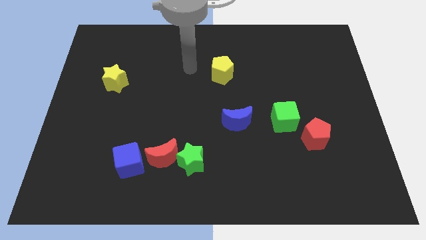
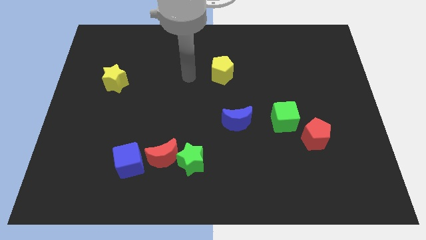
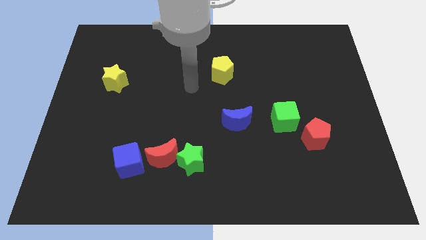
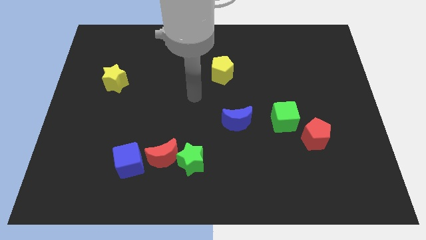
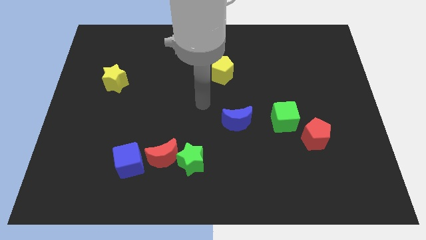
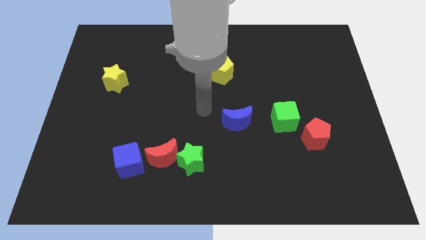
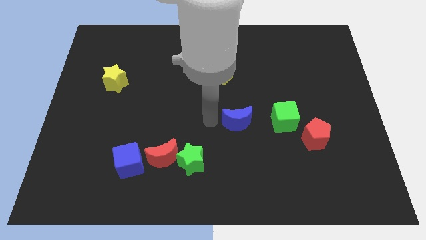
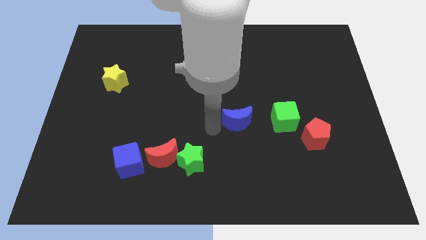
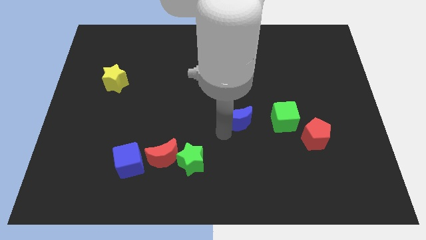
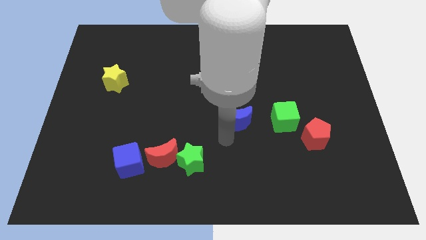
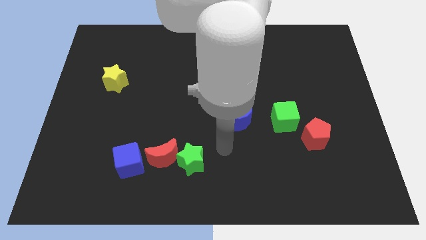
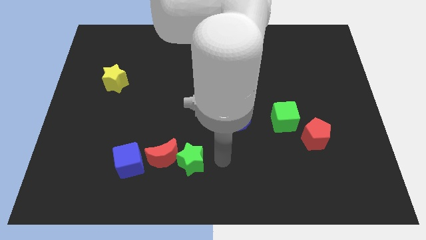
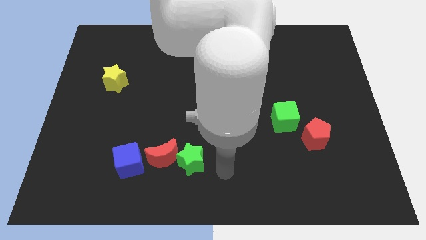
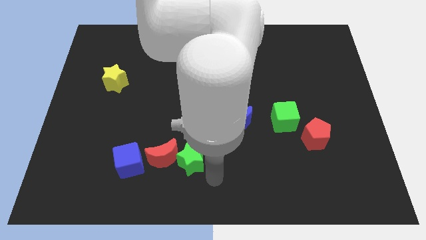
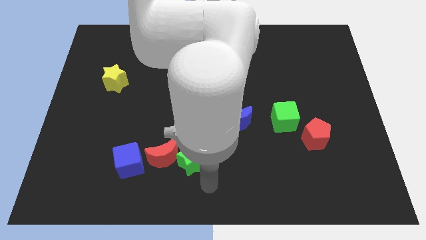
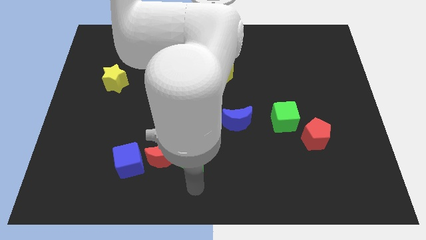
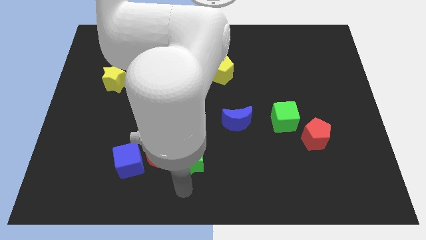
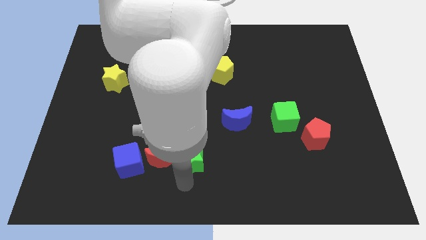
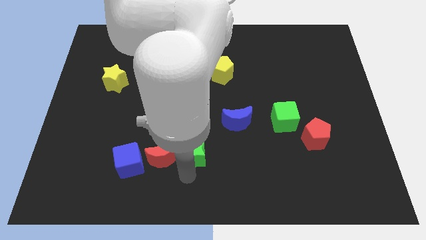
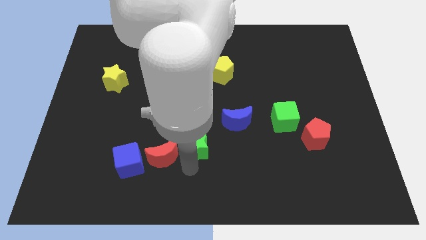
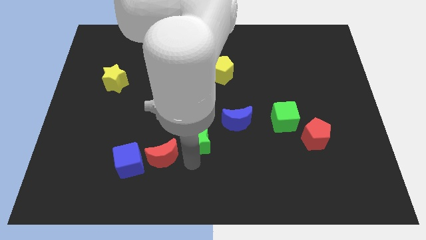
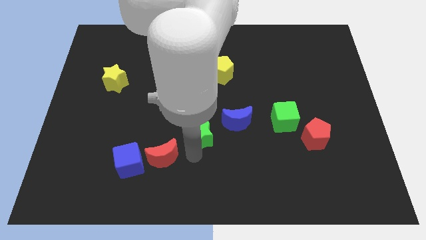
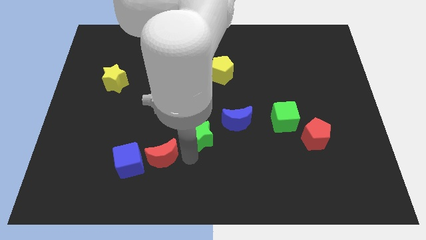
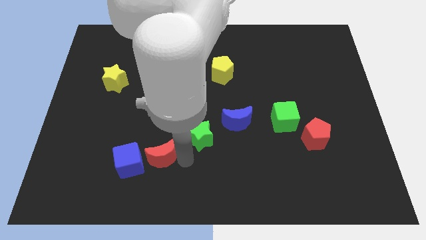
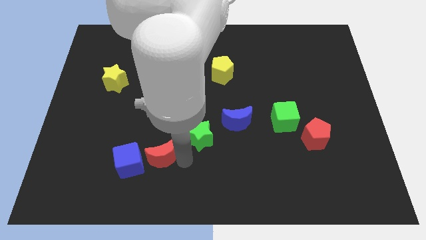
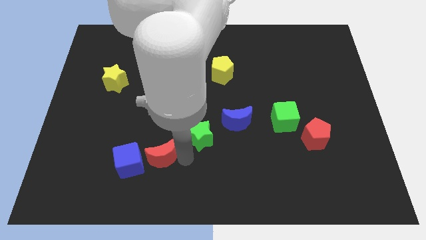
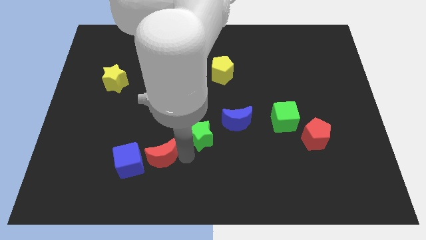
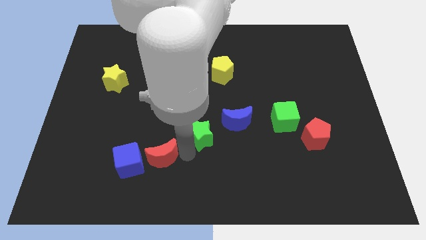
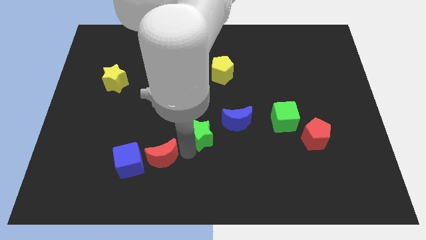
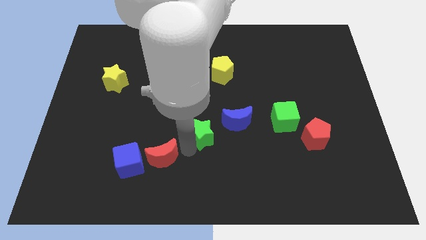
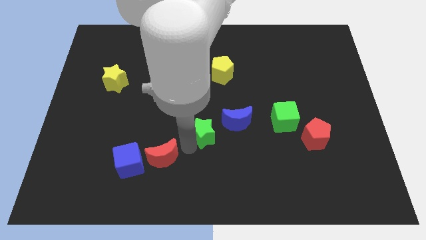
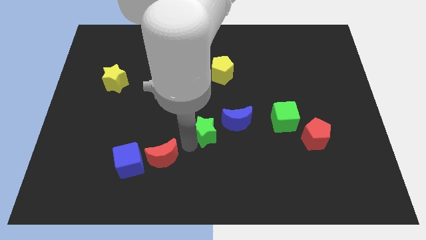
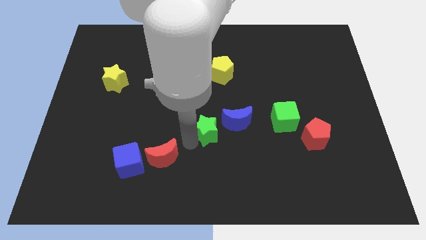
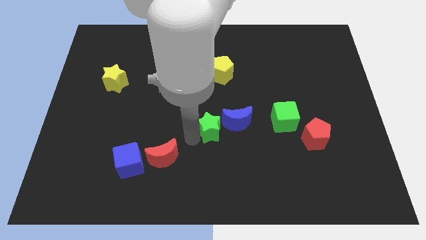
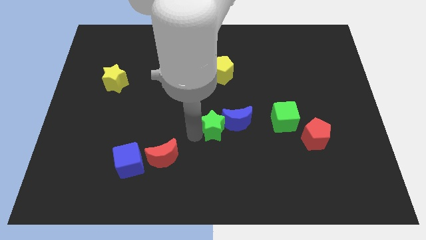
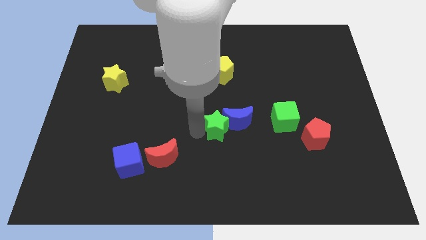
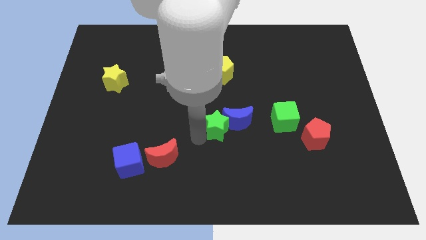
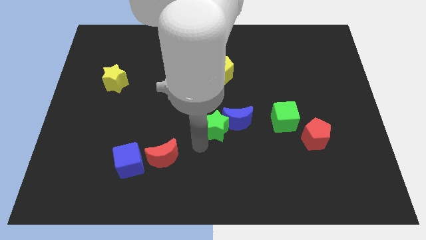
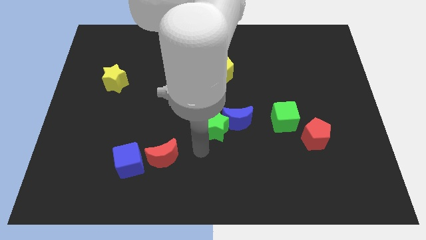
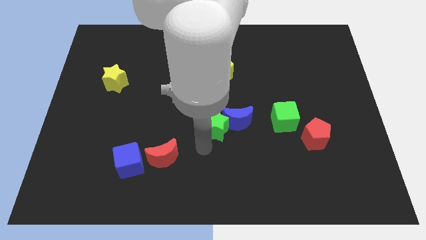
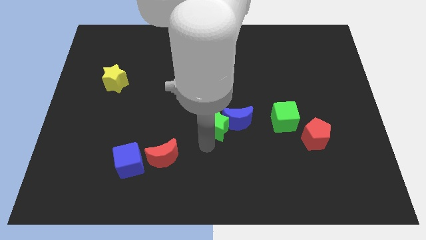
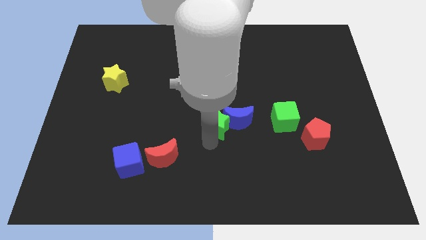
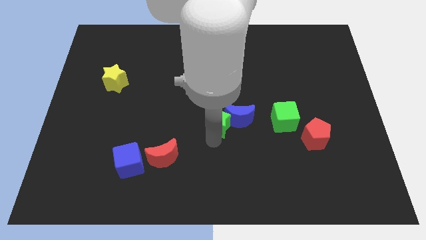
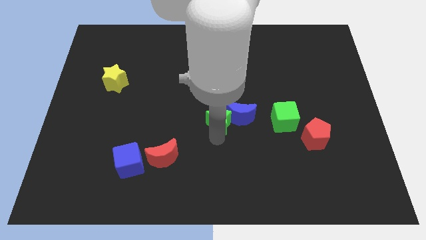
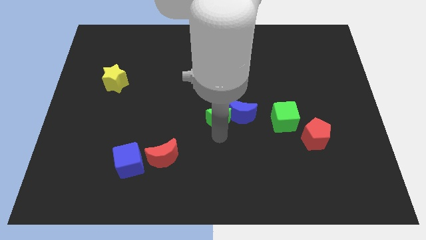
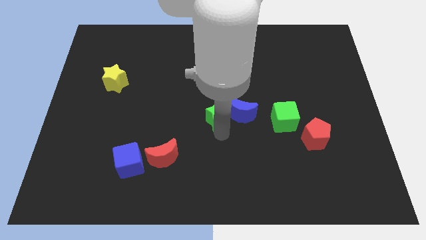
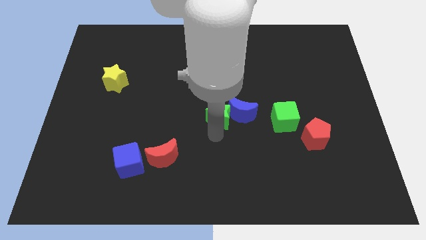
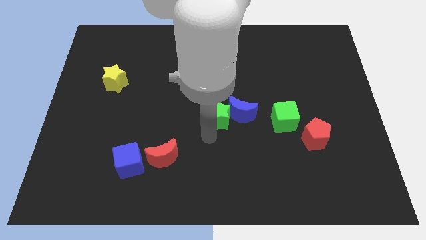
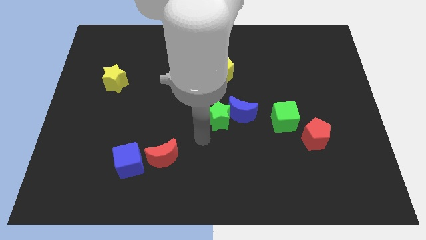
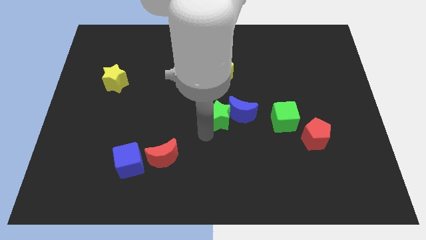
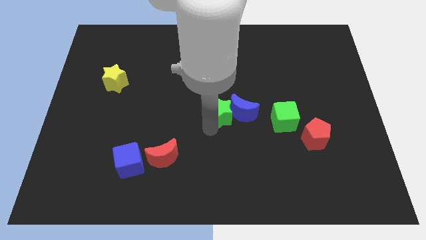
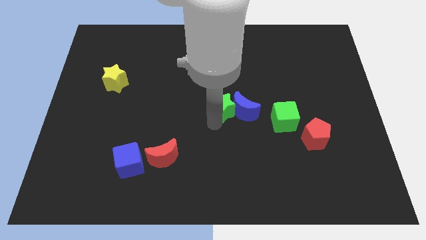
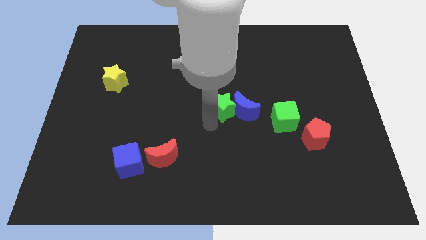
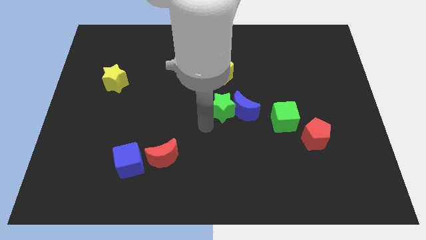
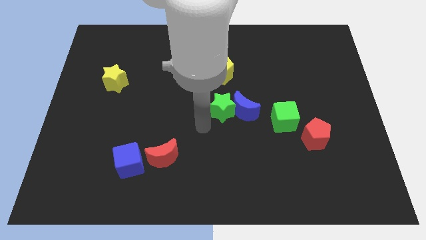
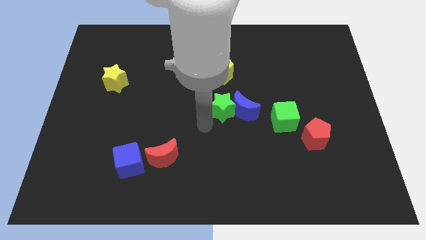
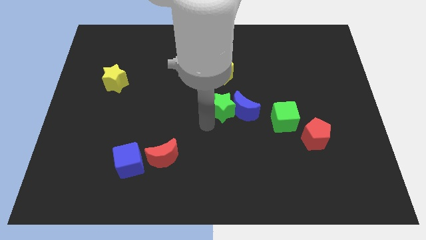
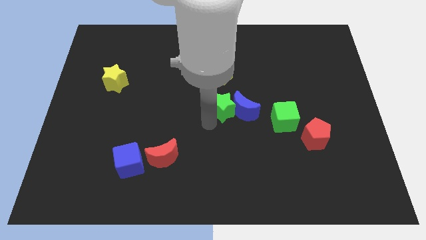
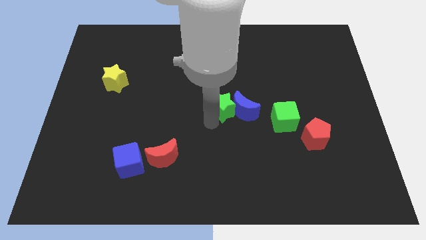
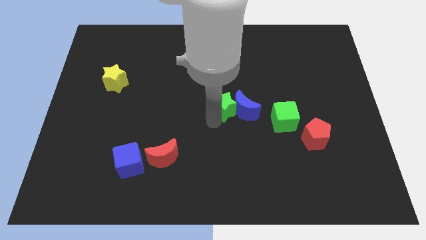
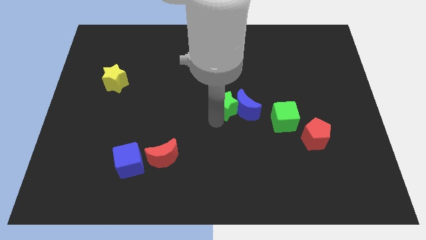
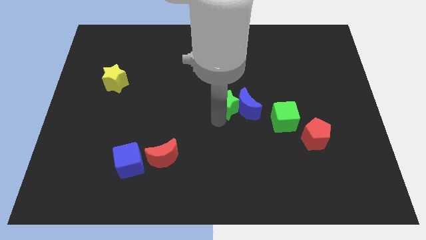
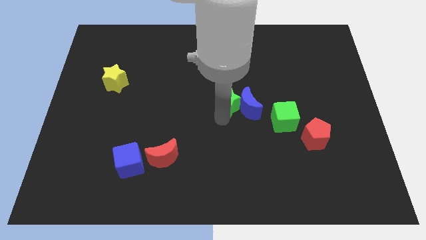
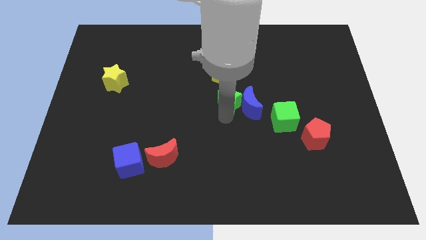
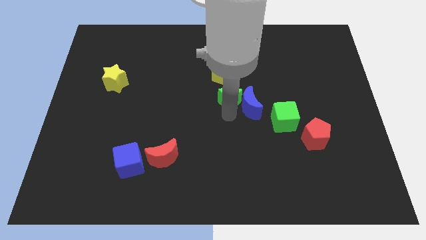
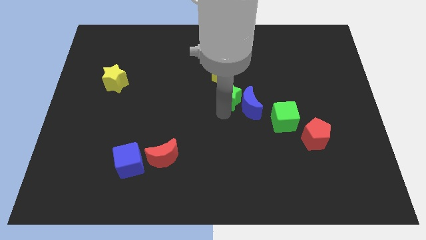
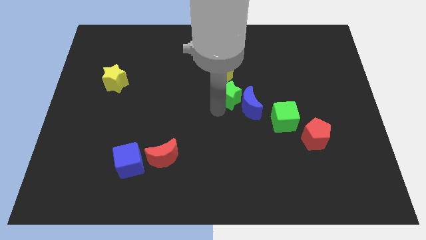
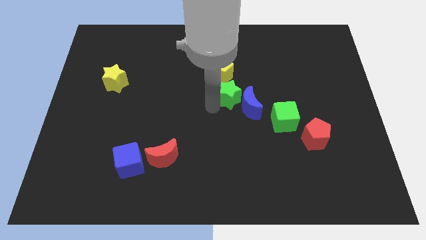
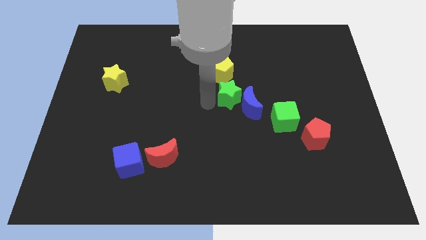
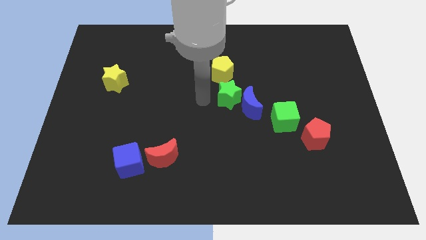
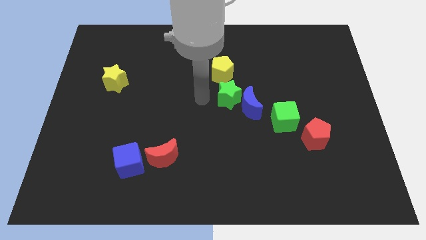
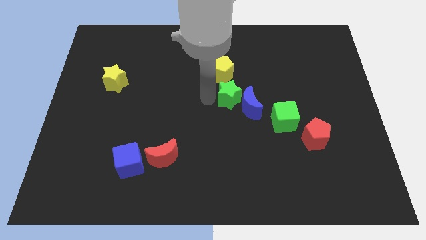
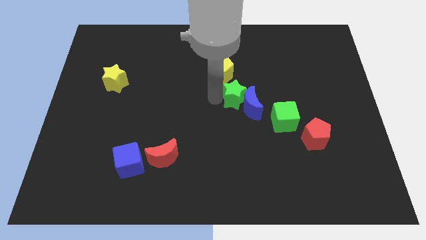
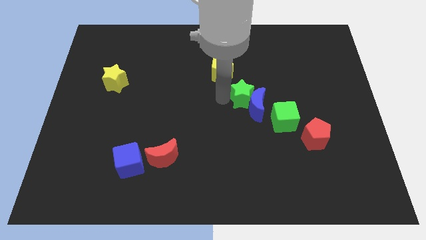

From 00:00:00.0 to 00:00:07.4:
push the green star diagonally up and right

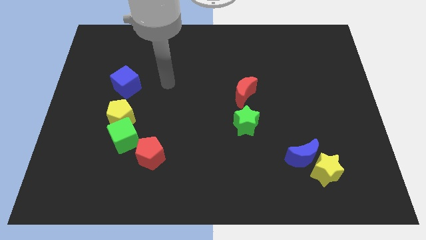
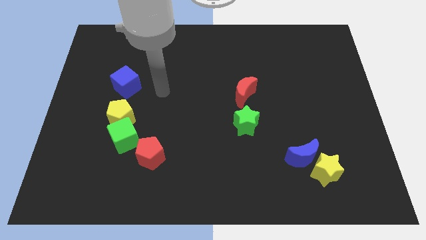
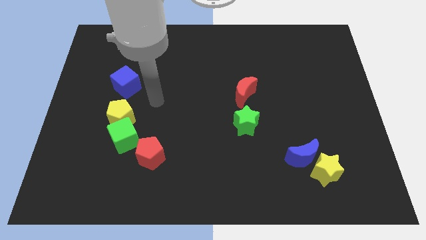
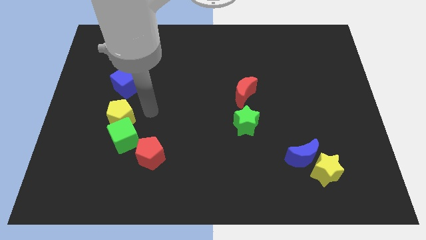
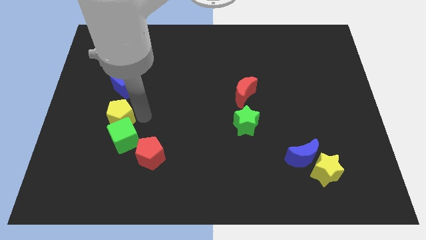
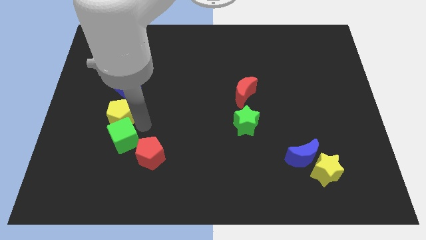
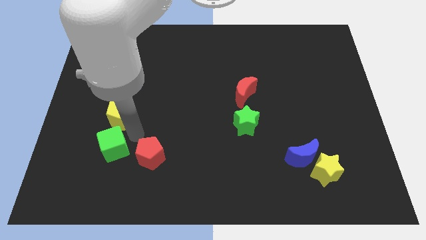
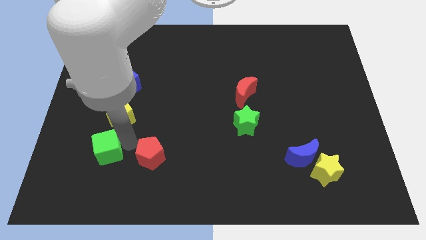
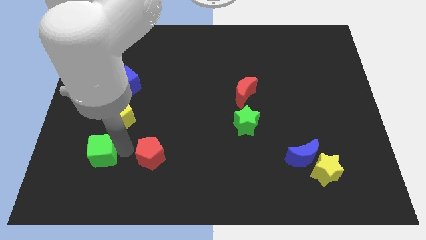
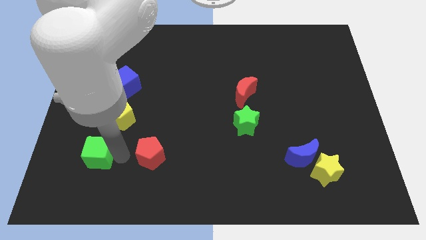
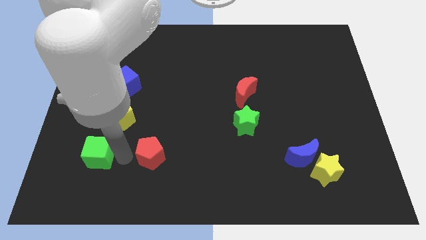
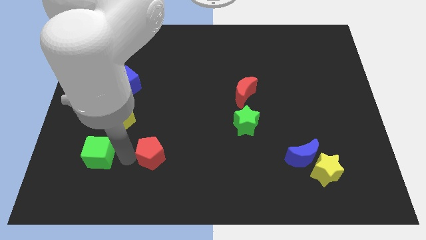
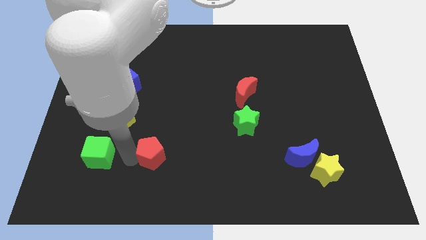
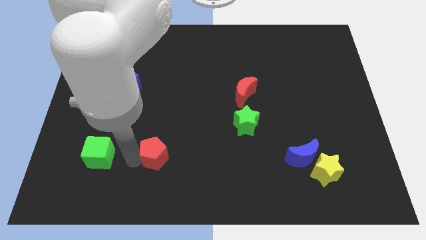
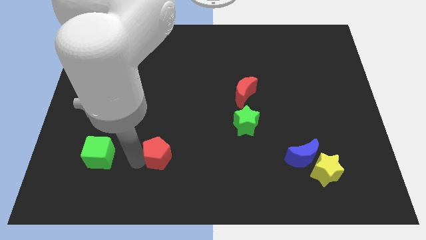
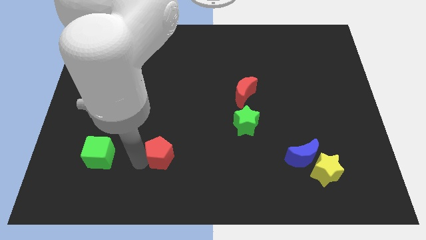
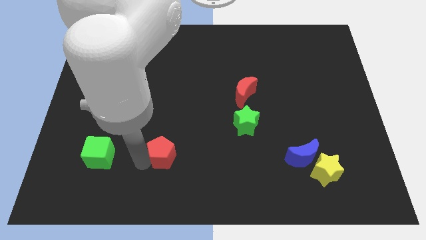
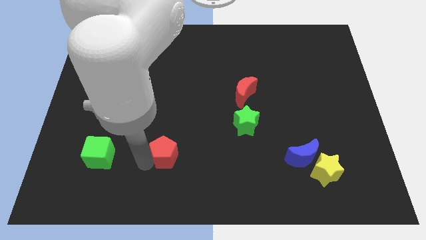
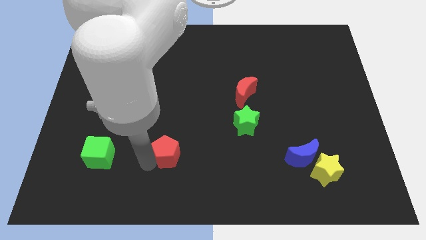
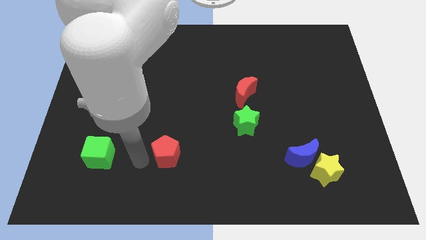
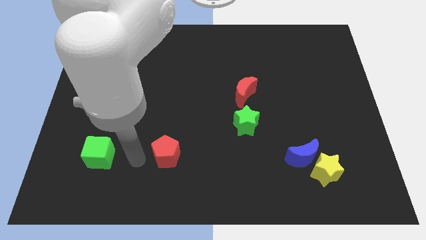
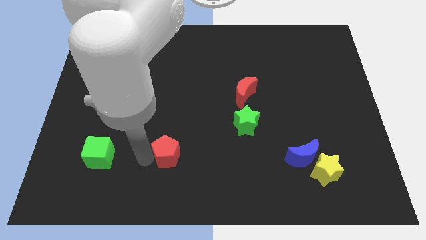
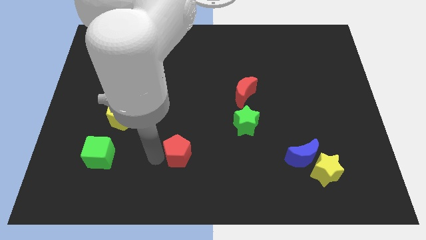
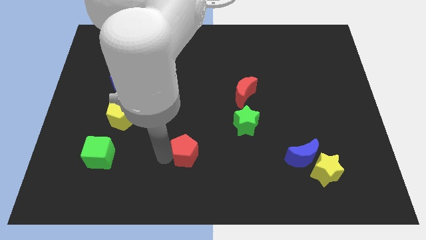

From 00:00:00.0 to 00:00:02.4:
slightly move the red pentagon to the right
